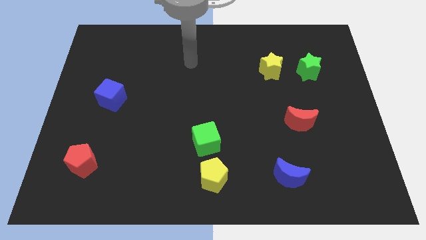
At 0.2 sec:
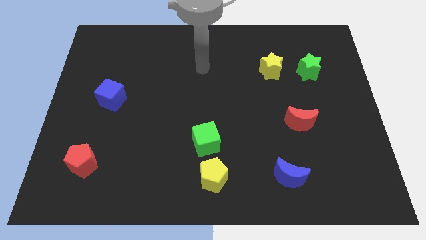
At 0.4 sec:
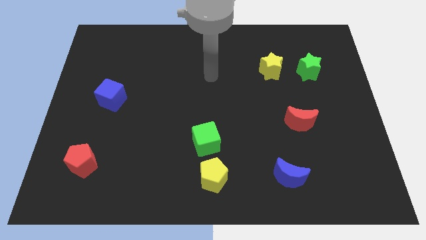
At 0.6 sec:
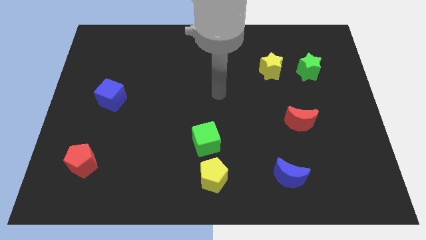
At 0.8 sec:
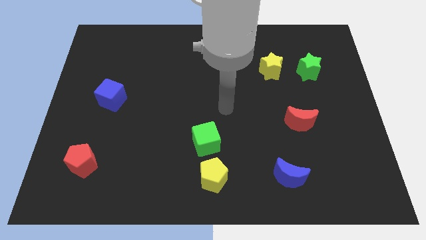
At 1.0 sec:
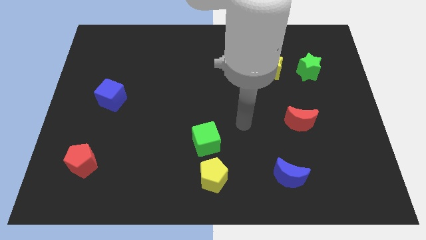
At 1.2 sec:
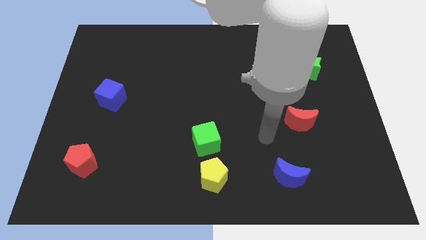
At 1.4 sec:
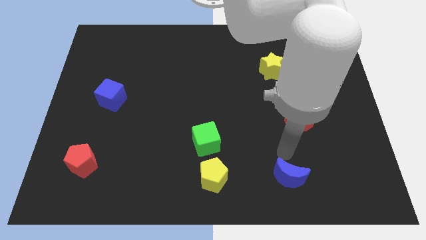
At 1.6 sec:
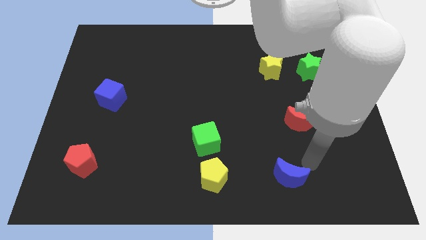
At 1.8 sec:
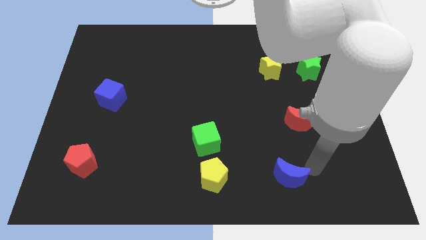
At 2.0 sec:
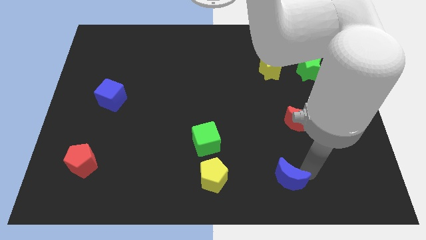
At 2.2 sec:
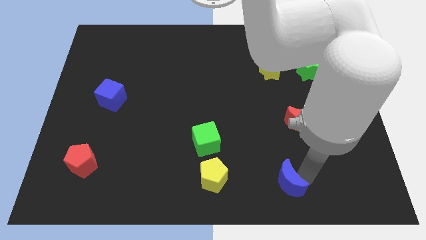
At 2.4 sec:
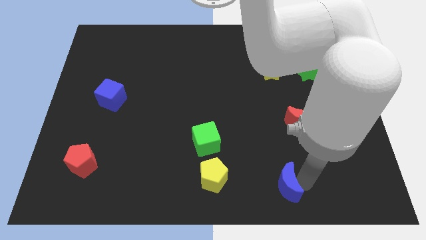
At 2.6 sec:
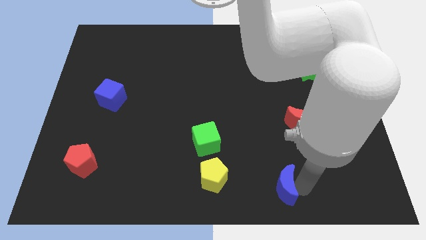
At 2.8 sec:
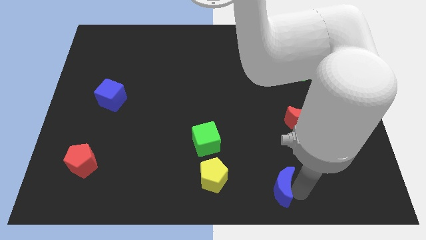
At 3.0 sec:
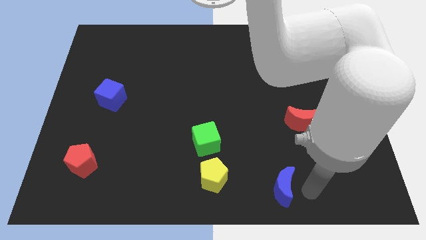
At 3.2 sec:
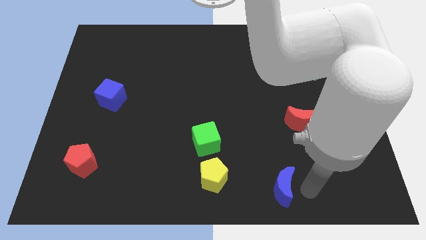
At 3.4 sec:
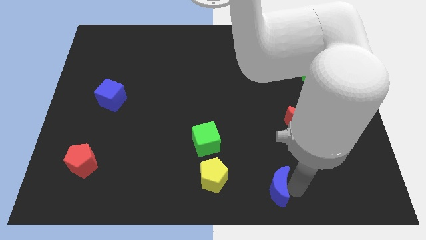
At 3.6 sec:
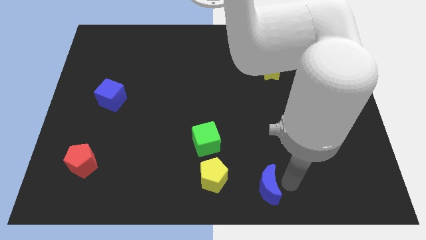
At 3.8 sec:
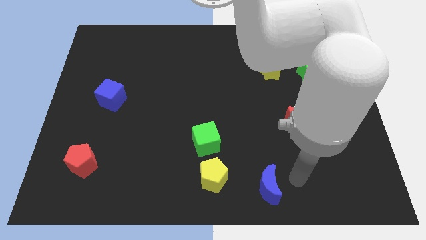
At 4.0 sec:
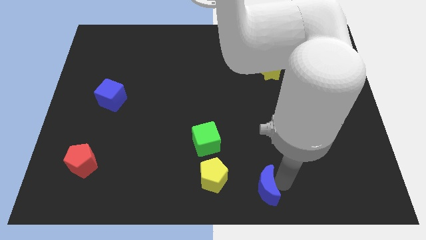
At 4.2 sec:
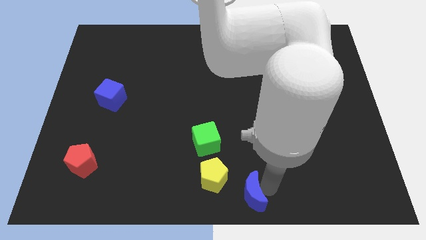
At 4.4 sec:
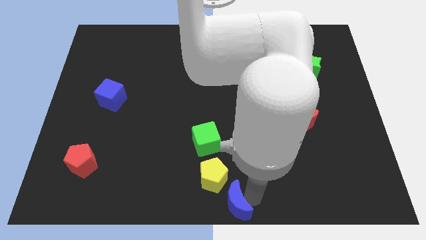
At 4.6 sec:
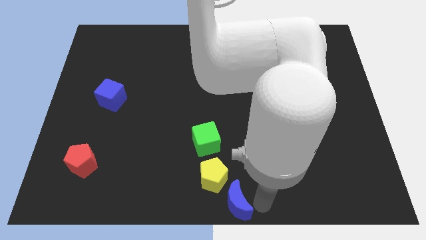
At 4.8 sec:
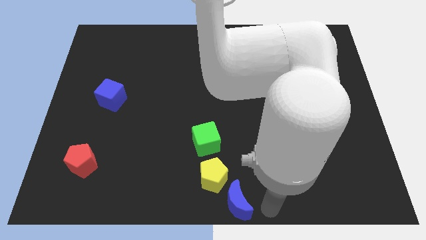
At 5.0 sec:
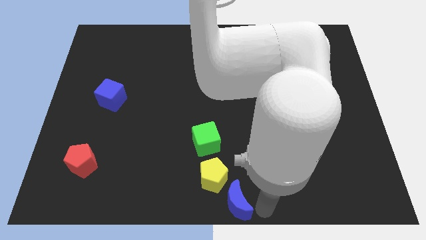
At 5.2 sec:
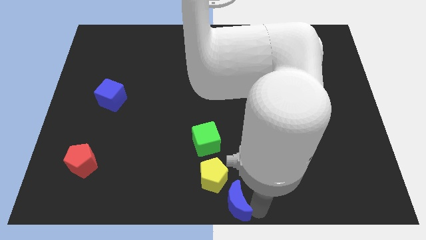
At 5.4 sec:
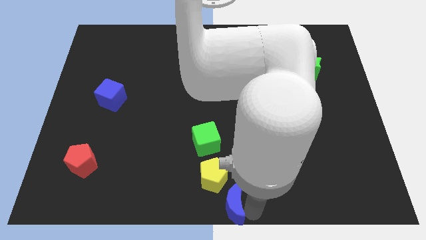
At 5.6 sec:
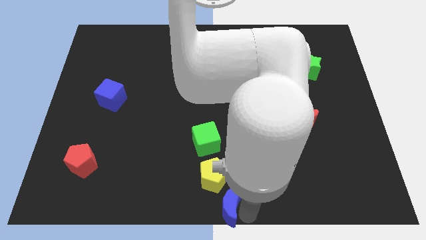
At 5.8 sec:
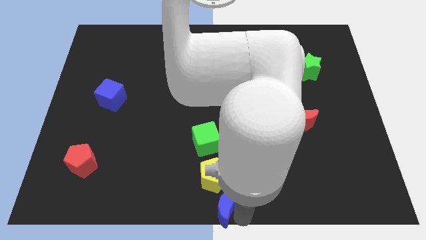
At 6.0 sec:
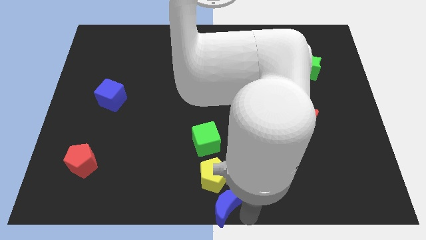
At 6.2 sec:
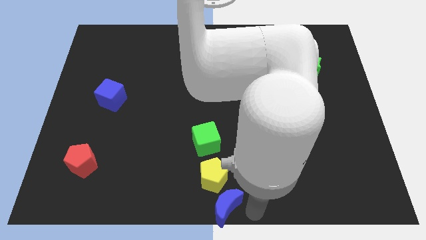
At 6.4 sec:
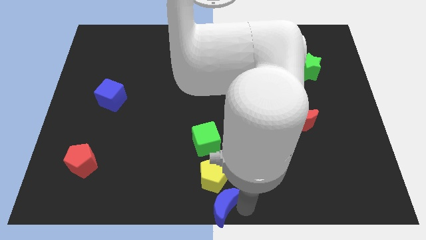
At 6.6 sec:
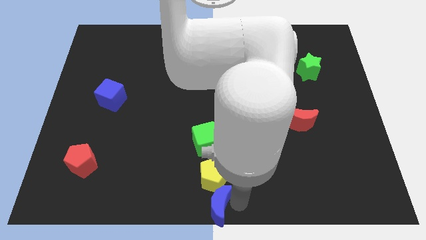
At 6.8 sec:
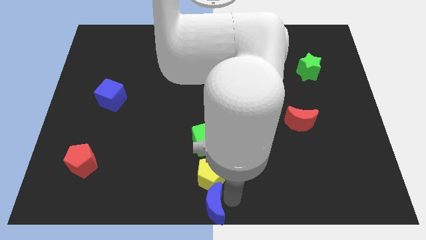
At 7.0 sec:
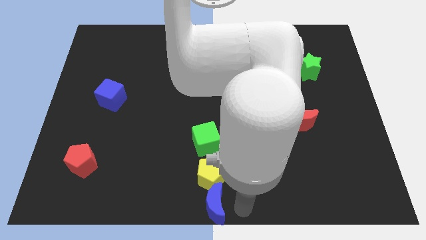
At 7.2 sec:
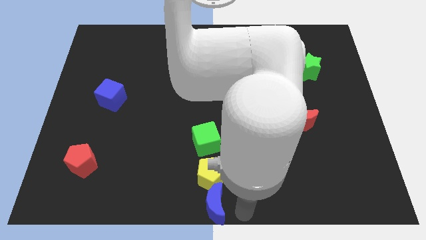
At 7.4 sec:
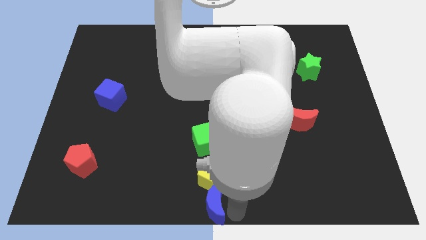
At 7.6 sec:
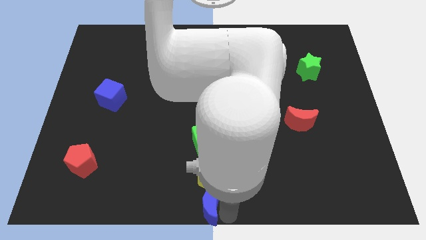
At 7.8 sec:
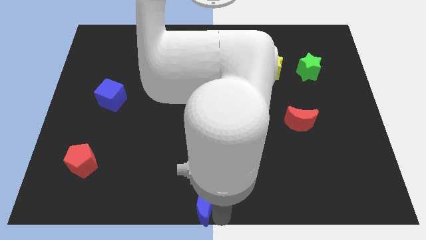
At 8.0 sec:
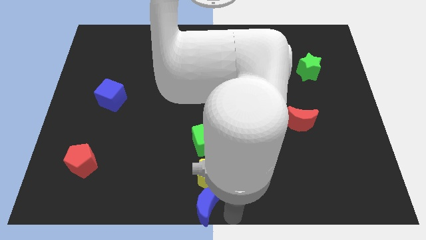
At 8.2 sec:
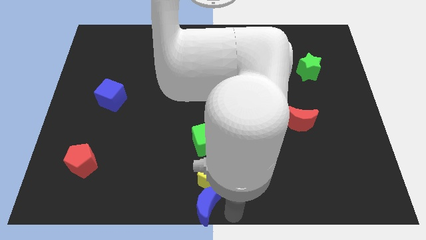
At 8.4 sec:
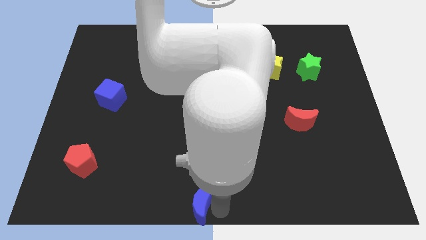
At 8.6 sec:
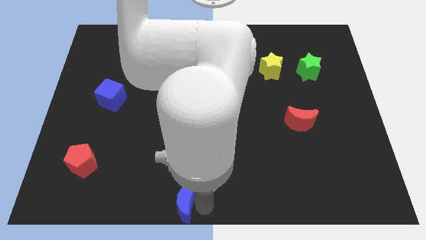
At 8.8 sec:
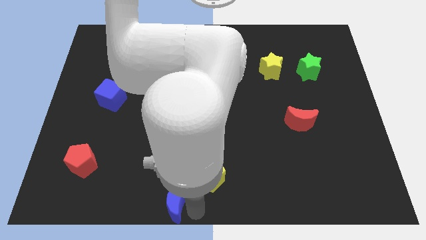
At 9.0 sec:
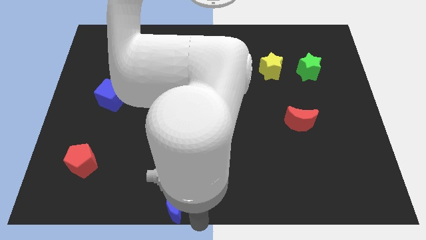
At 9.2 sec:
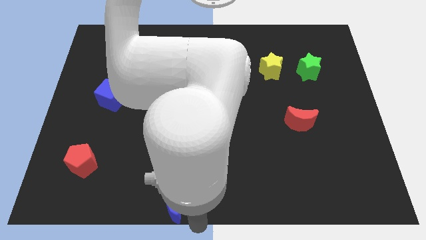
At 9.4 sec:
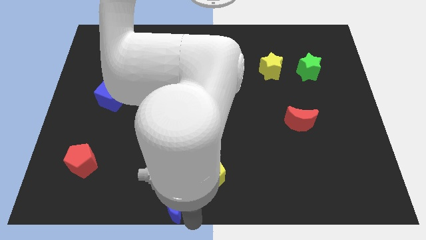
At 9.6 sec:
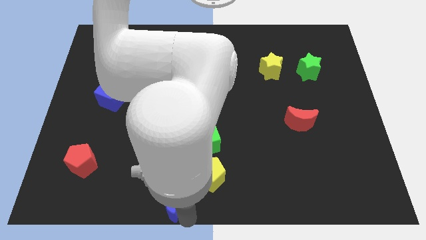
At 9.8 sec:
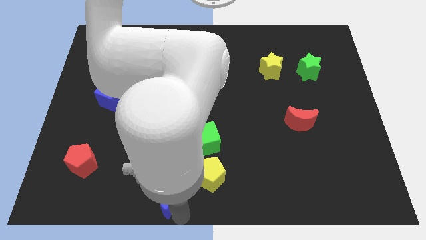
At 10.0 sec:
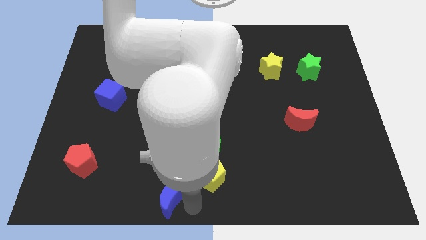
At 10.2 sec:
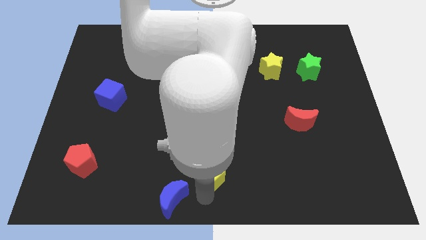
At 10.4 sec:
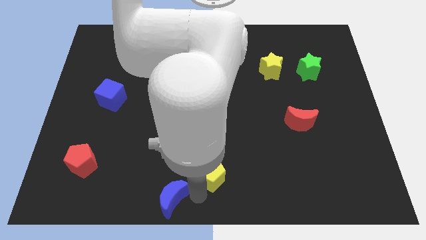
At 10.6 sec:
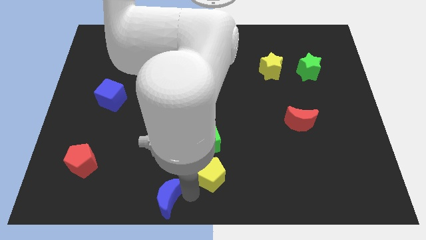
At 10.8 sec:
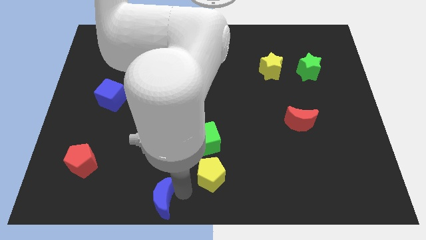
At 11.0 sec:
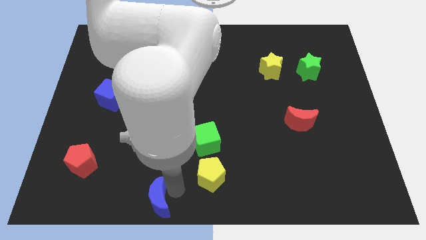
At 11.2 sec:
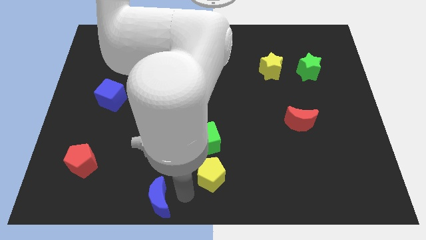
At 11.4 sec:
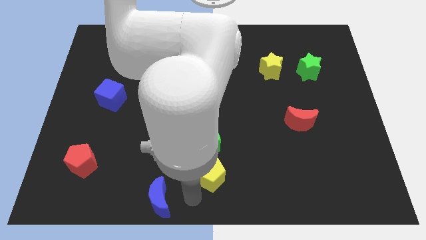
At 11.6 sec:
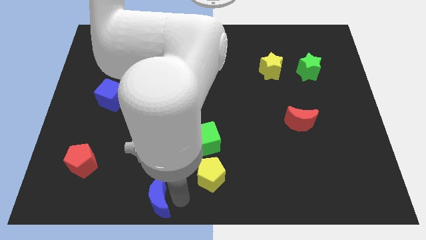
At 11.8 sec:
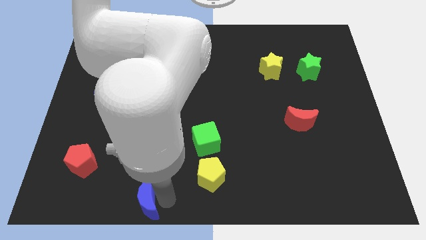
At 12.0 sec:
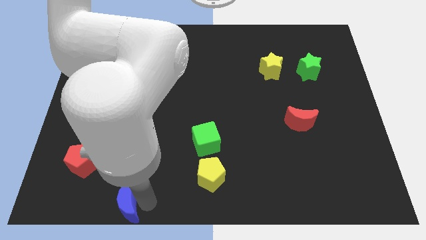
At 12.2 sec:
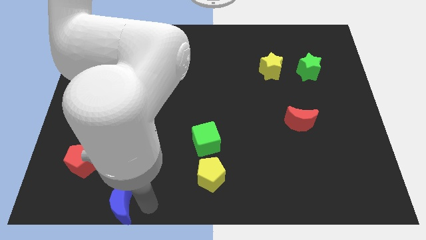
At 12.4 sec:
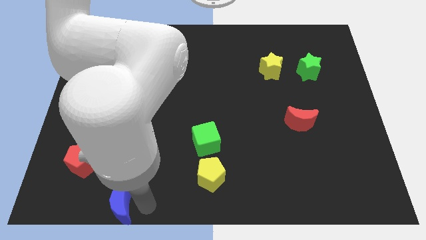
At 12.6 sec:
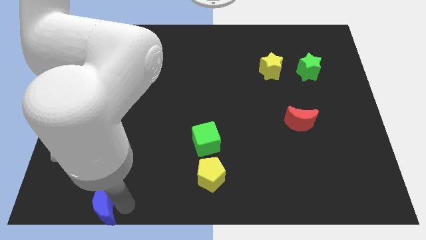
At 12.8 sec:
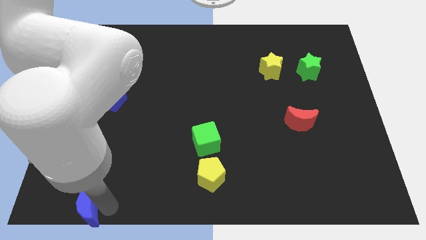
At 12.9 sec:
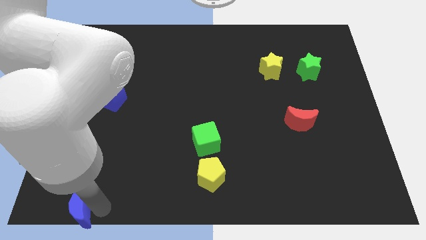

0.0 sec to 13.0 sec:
put the blue moon to the bottom left of the board

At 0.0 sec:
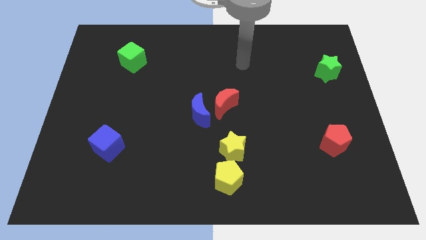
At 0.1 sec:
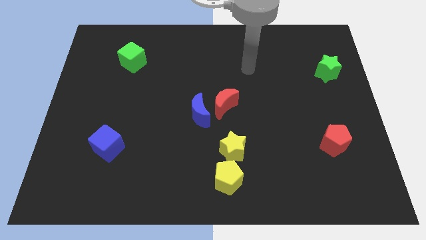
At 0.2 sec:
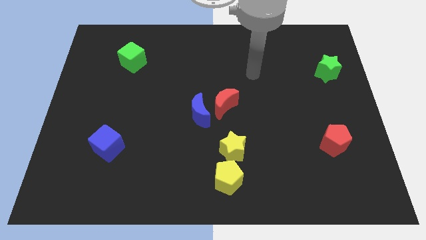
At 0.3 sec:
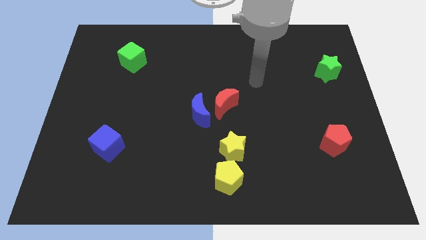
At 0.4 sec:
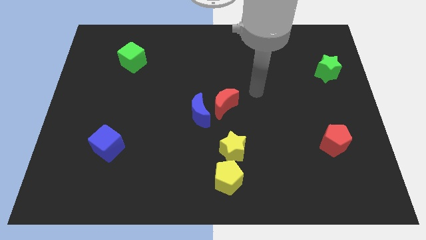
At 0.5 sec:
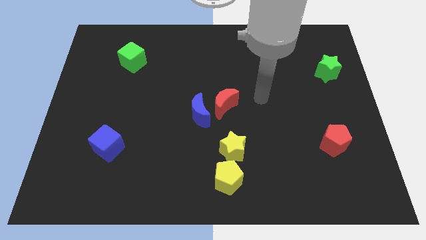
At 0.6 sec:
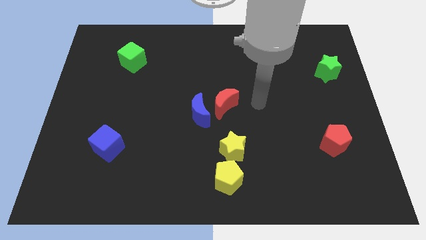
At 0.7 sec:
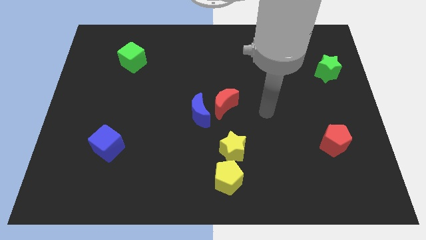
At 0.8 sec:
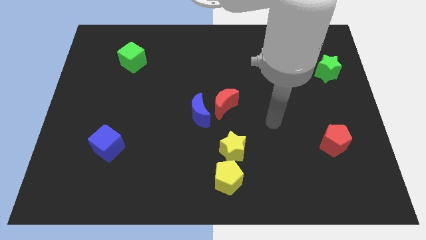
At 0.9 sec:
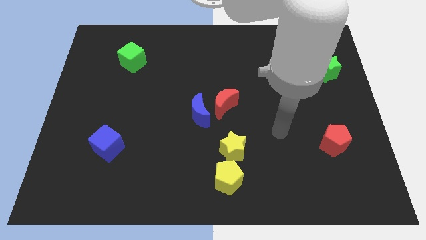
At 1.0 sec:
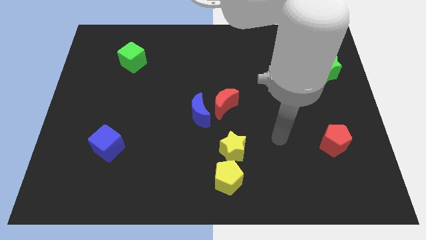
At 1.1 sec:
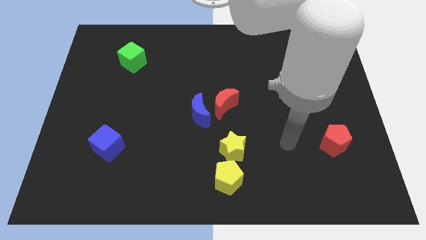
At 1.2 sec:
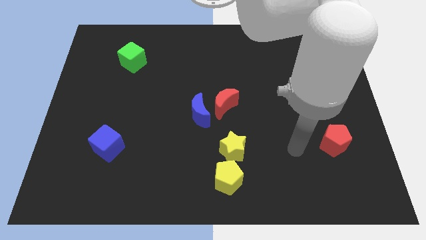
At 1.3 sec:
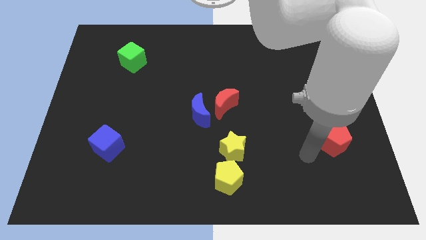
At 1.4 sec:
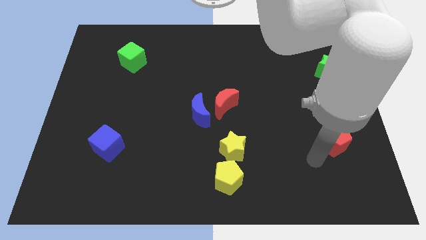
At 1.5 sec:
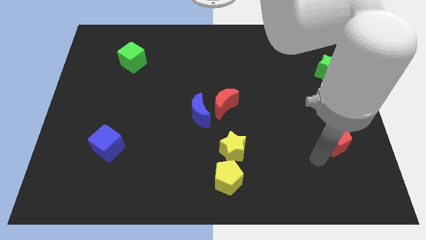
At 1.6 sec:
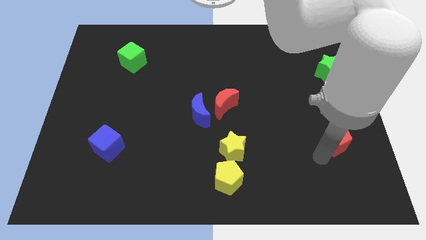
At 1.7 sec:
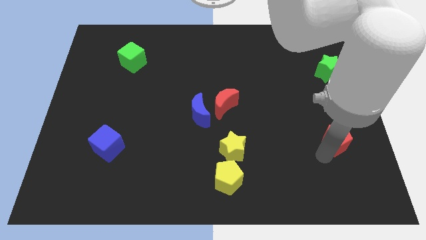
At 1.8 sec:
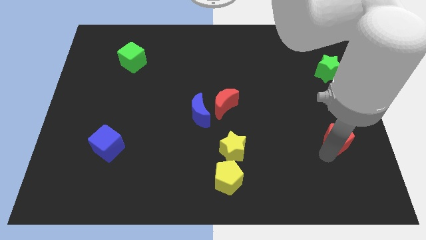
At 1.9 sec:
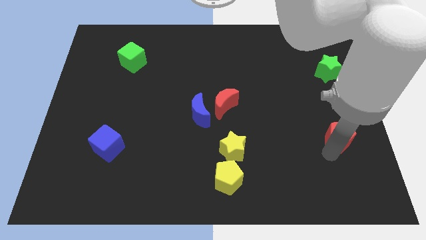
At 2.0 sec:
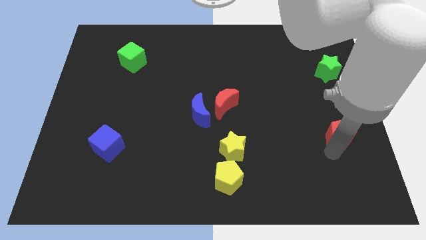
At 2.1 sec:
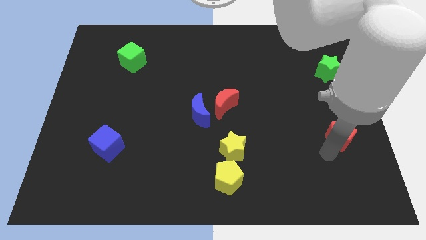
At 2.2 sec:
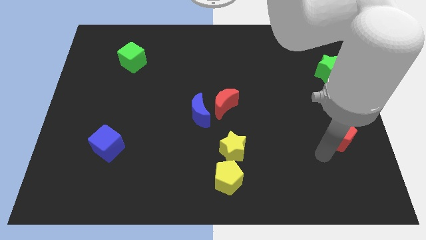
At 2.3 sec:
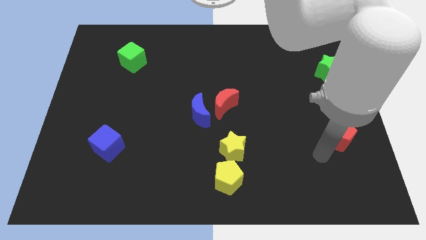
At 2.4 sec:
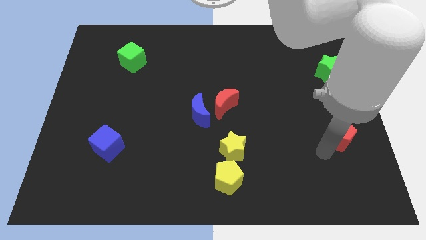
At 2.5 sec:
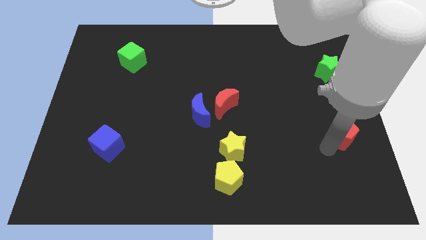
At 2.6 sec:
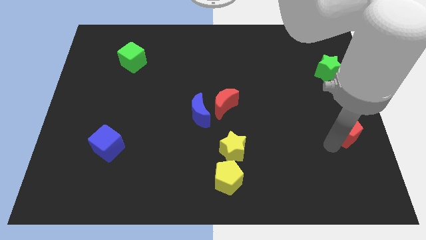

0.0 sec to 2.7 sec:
slide the red pentagon to the center right
